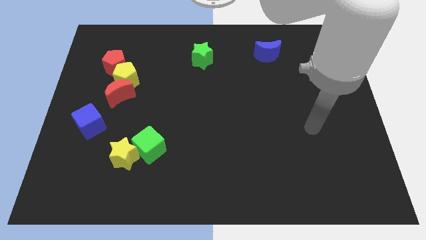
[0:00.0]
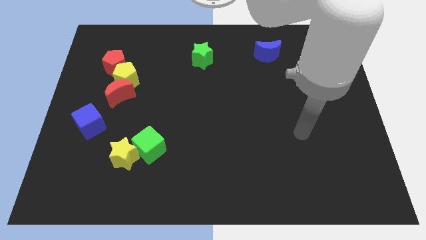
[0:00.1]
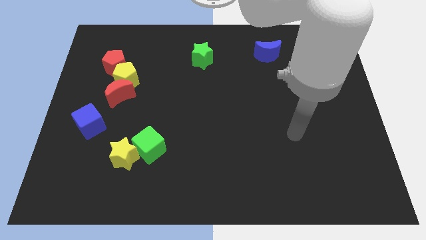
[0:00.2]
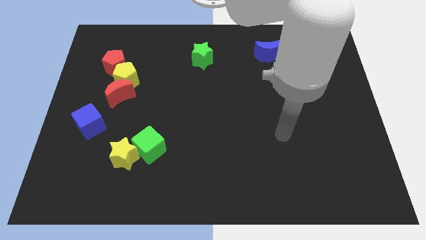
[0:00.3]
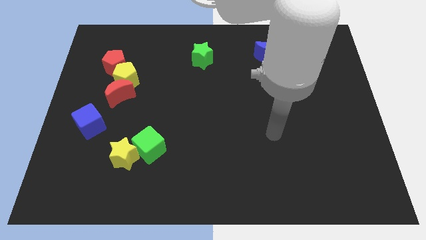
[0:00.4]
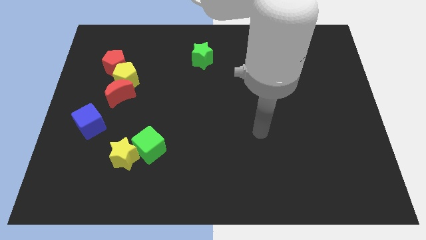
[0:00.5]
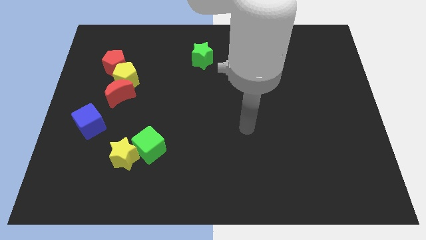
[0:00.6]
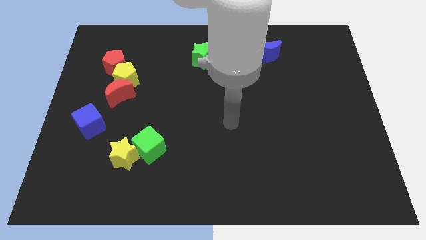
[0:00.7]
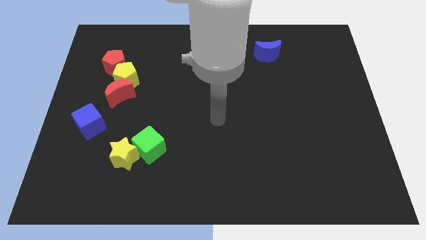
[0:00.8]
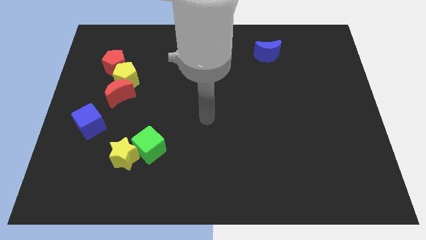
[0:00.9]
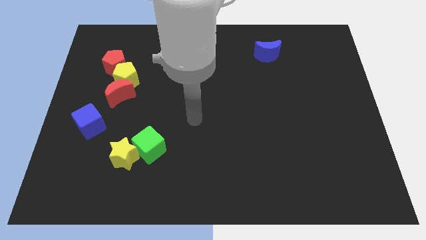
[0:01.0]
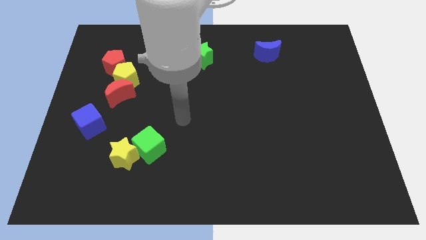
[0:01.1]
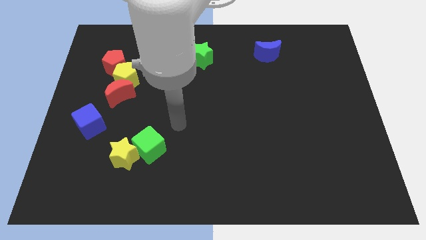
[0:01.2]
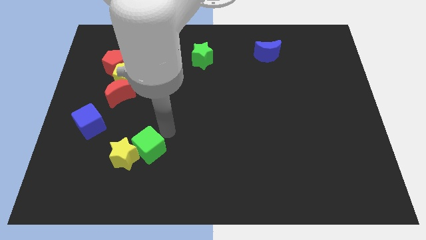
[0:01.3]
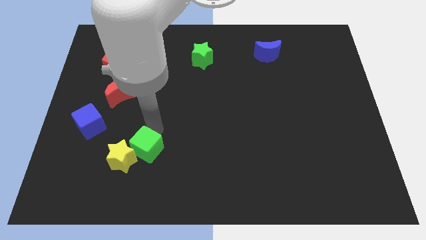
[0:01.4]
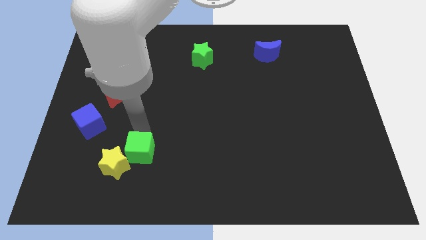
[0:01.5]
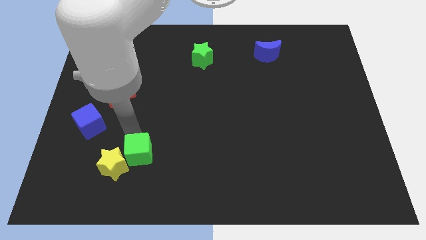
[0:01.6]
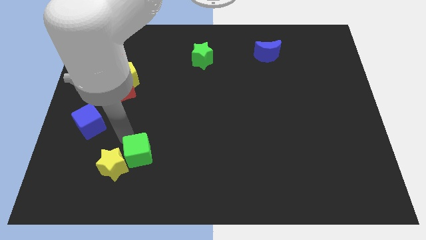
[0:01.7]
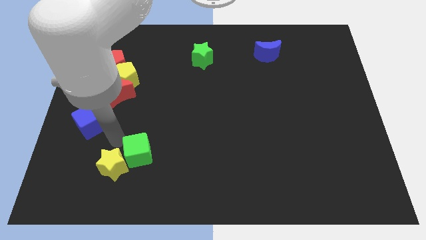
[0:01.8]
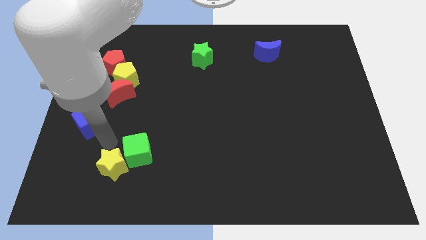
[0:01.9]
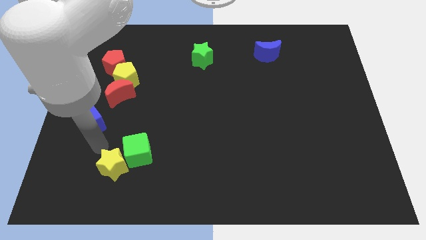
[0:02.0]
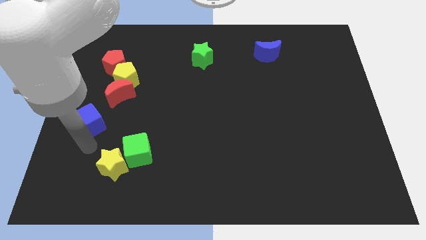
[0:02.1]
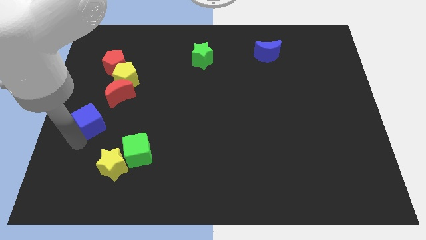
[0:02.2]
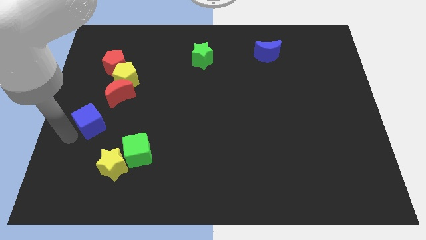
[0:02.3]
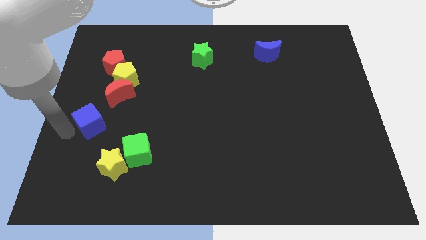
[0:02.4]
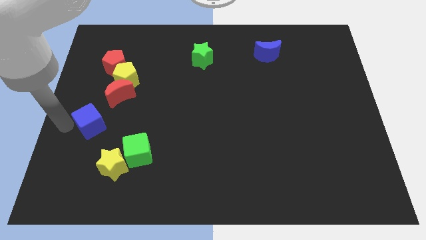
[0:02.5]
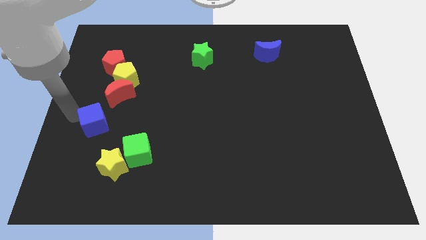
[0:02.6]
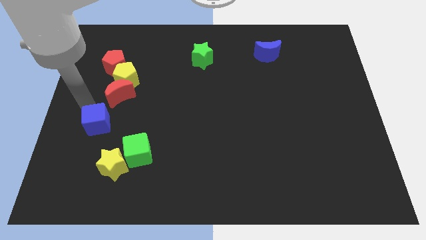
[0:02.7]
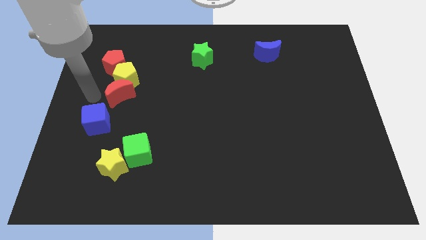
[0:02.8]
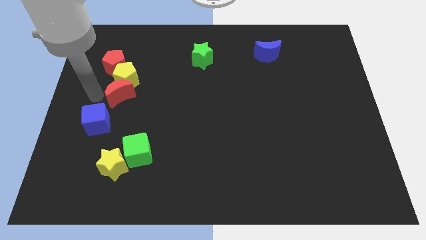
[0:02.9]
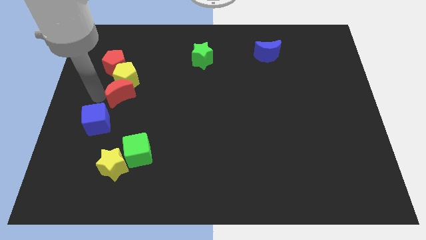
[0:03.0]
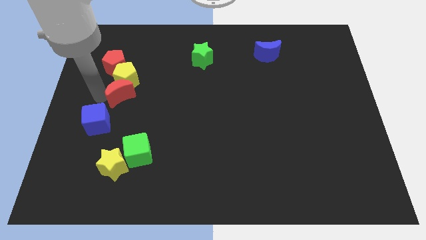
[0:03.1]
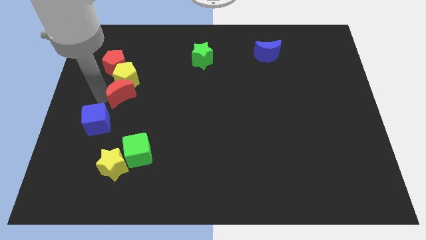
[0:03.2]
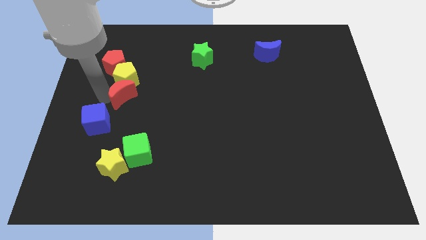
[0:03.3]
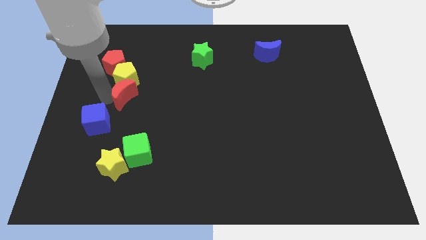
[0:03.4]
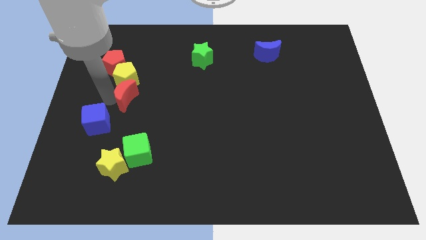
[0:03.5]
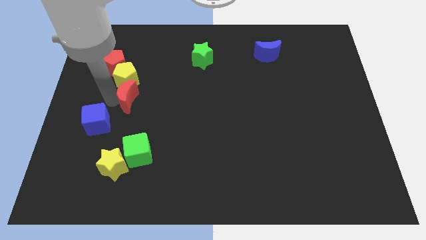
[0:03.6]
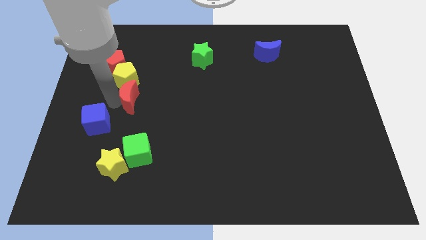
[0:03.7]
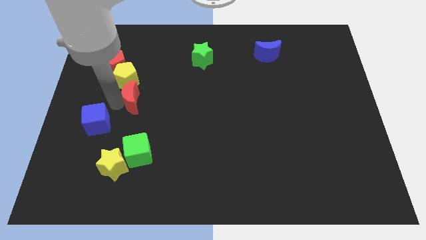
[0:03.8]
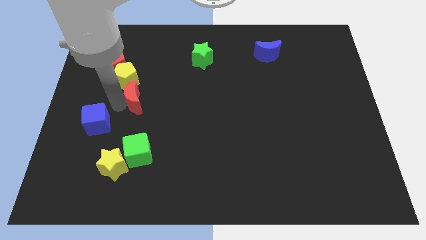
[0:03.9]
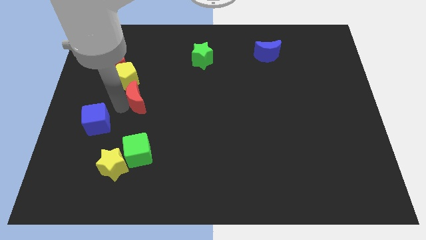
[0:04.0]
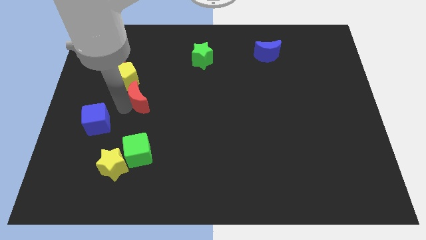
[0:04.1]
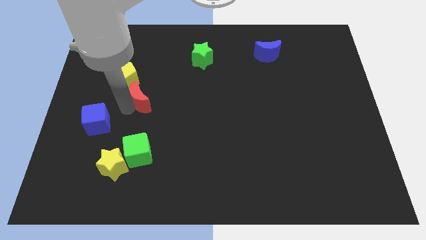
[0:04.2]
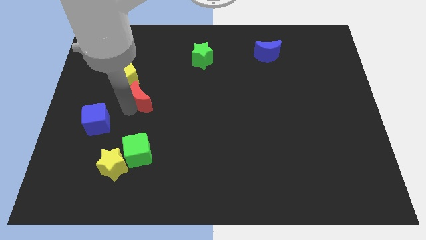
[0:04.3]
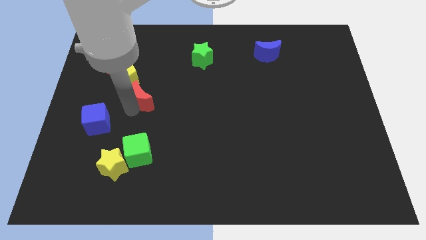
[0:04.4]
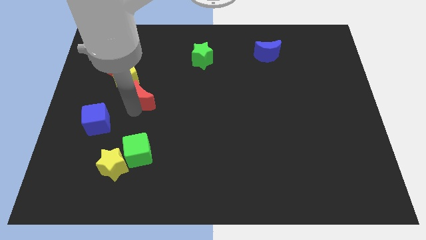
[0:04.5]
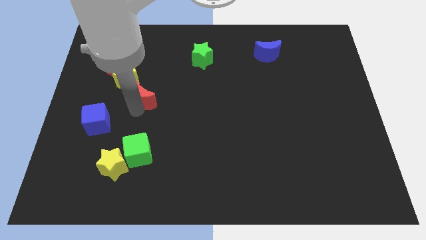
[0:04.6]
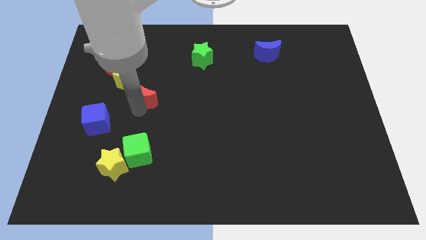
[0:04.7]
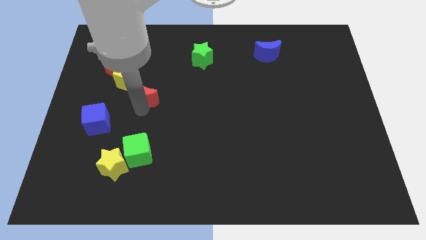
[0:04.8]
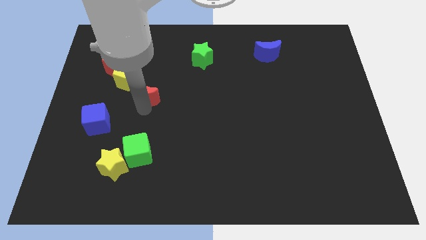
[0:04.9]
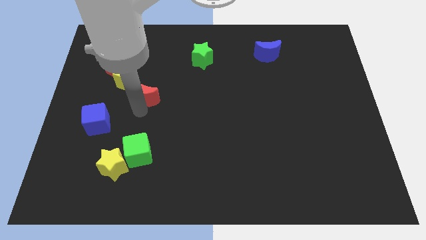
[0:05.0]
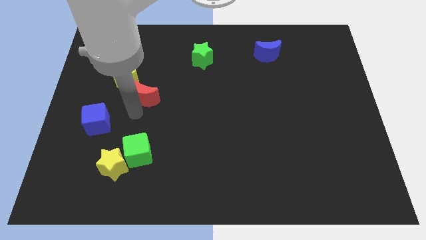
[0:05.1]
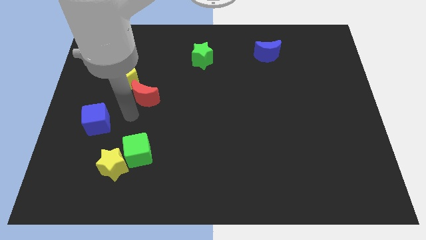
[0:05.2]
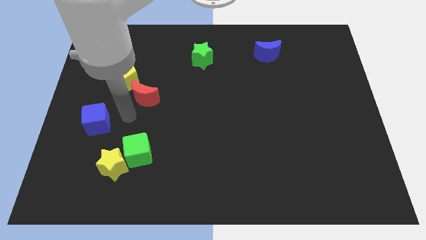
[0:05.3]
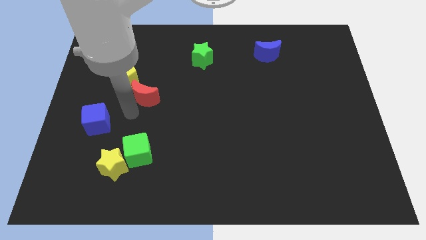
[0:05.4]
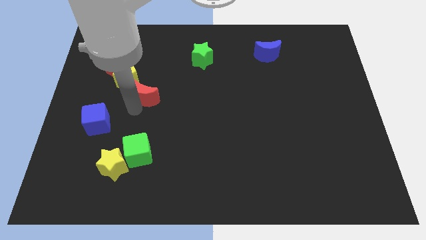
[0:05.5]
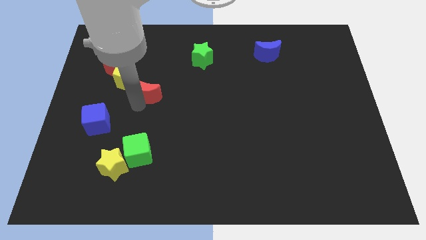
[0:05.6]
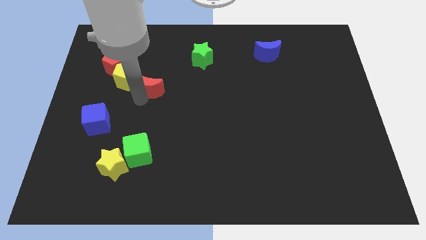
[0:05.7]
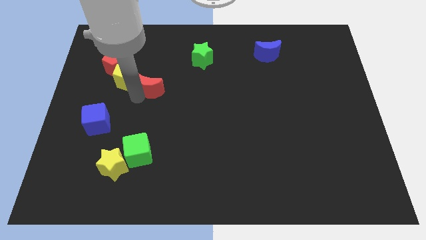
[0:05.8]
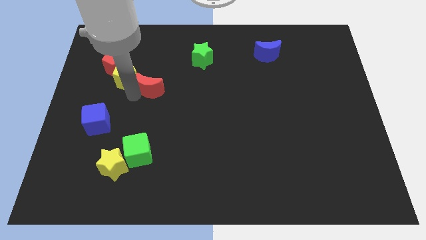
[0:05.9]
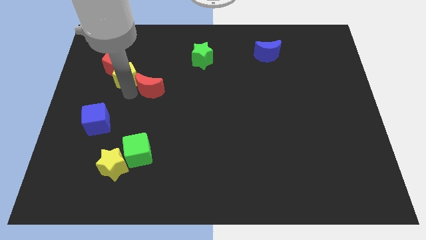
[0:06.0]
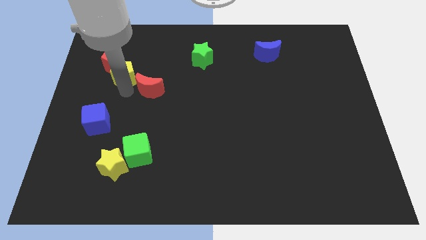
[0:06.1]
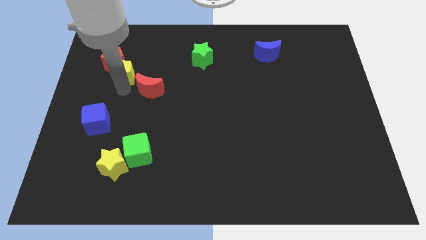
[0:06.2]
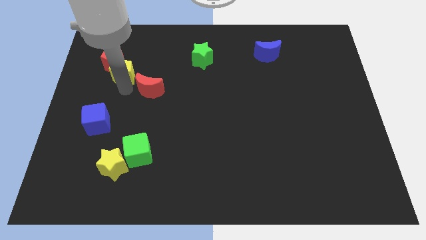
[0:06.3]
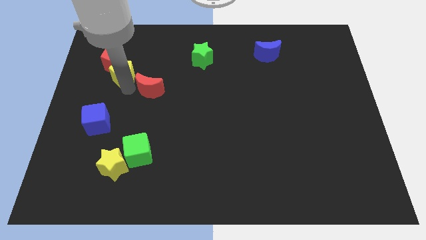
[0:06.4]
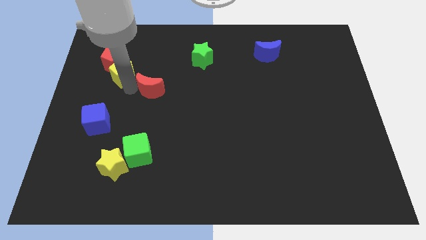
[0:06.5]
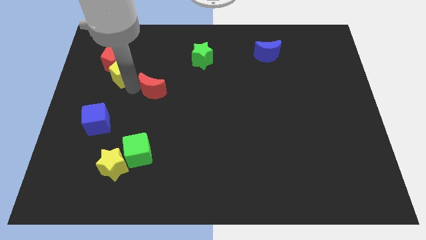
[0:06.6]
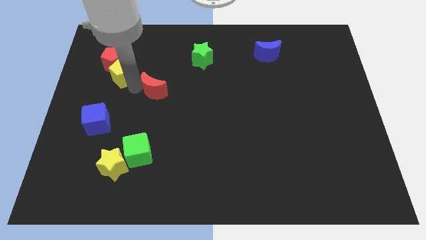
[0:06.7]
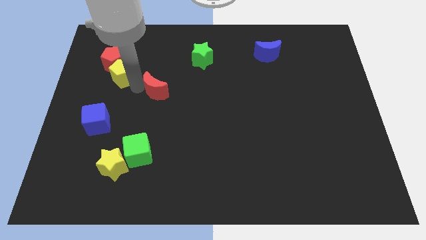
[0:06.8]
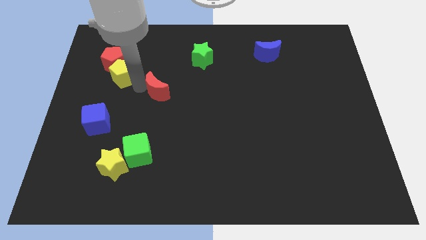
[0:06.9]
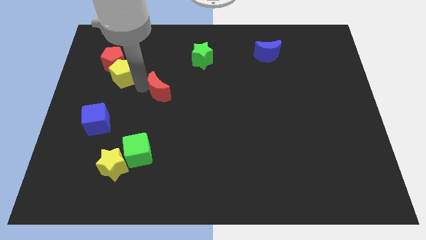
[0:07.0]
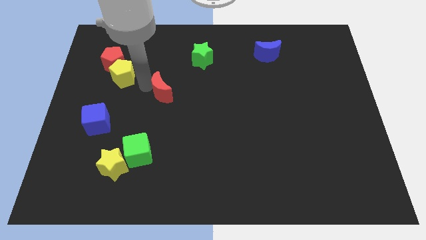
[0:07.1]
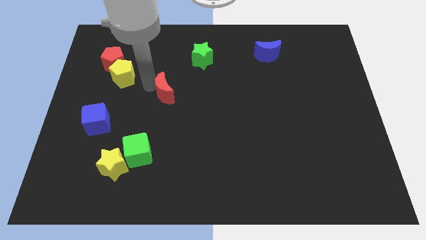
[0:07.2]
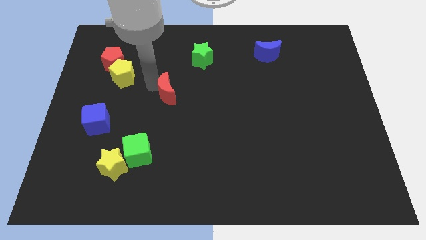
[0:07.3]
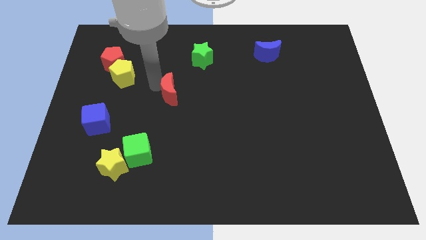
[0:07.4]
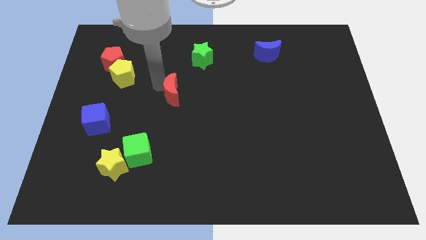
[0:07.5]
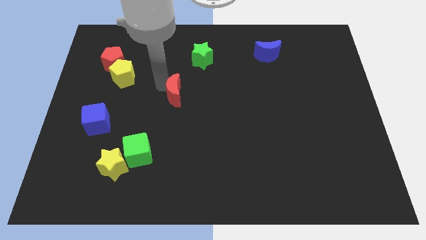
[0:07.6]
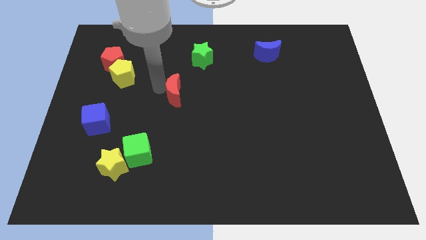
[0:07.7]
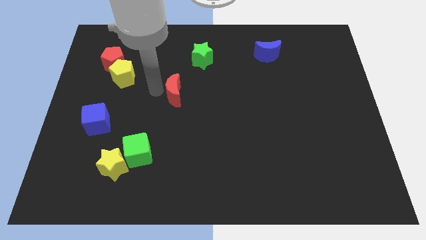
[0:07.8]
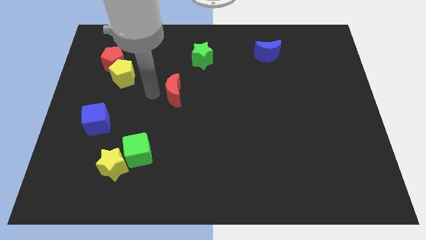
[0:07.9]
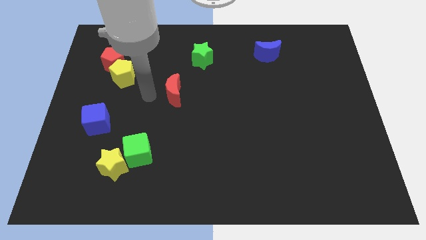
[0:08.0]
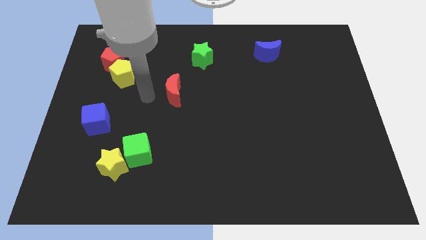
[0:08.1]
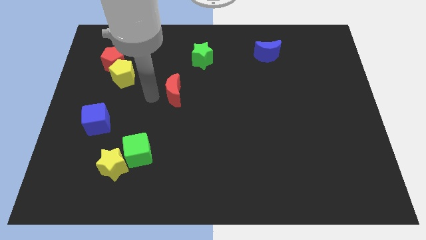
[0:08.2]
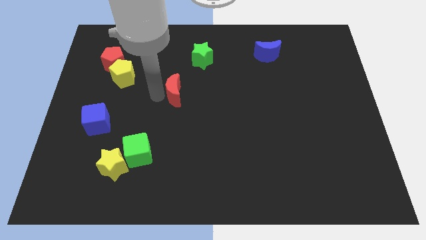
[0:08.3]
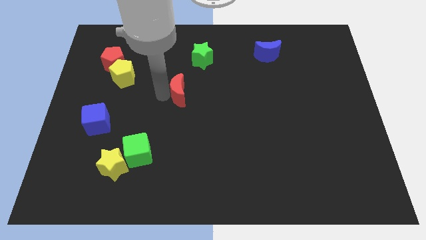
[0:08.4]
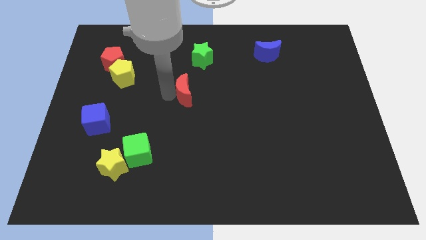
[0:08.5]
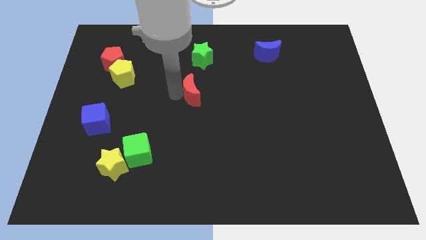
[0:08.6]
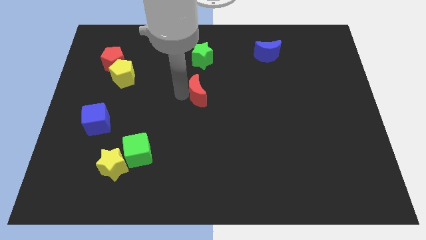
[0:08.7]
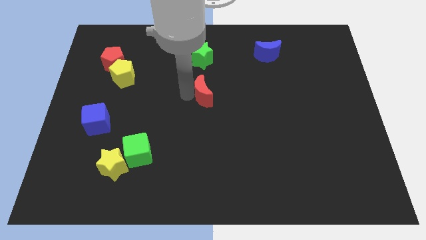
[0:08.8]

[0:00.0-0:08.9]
push the red moon to the right
